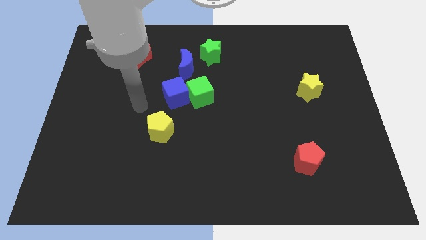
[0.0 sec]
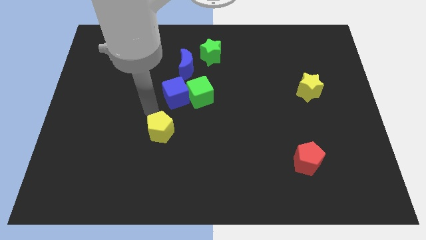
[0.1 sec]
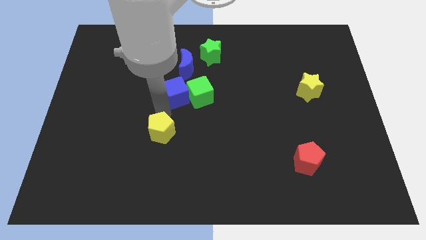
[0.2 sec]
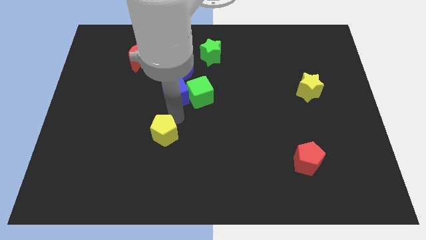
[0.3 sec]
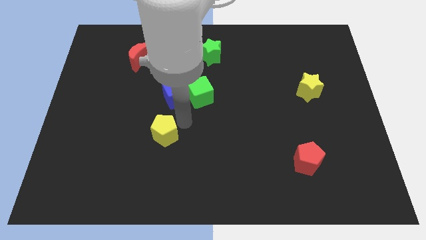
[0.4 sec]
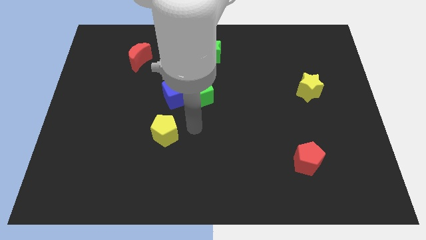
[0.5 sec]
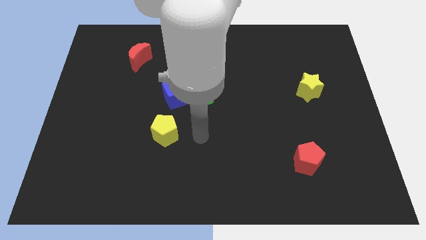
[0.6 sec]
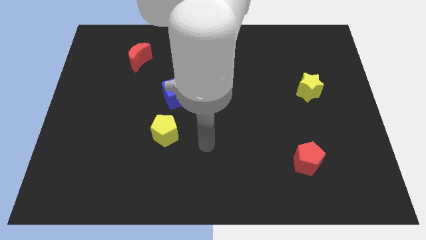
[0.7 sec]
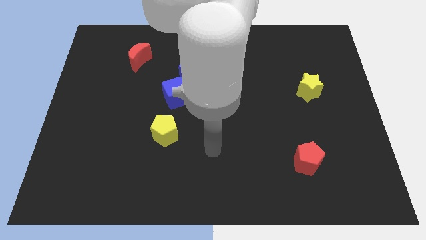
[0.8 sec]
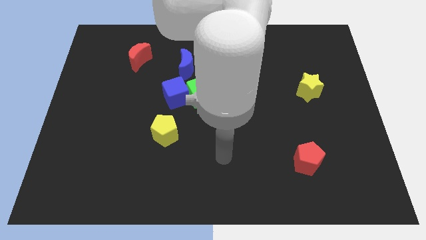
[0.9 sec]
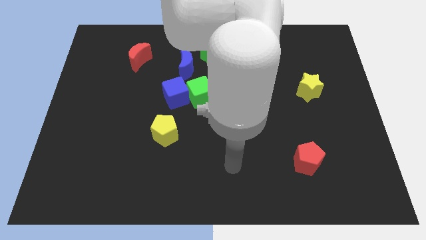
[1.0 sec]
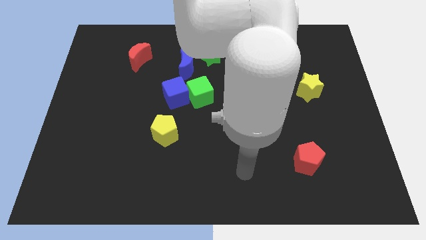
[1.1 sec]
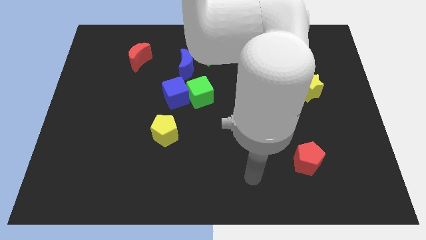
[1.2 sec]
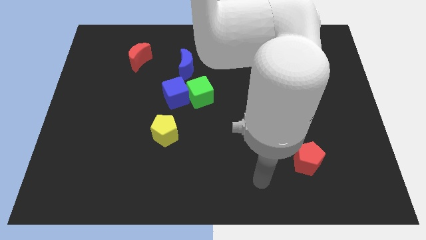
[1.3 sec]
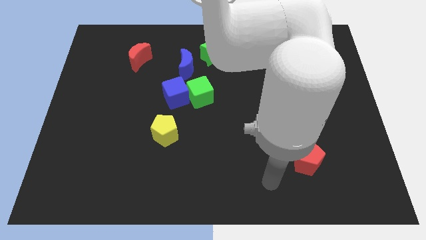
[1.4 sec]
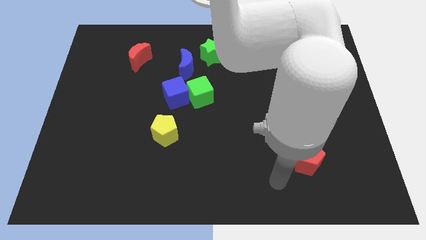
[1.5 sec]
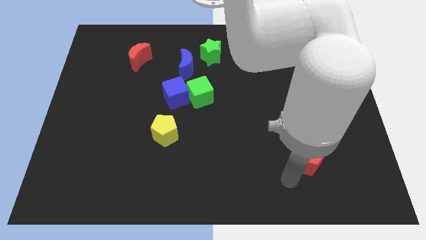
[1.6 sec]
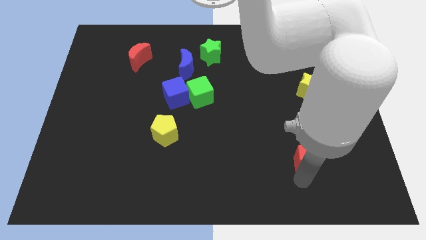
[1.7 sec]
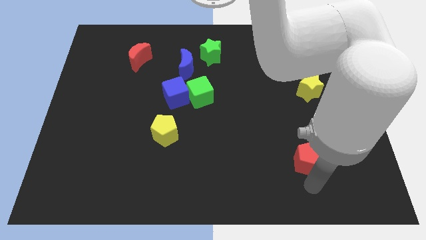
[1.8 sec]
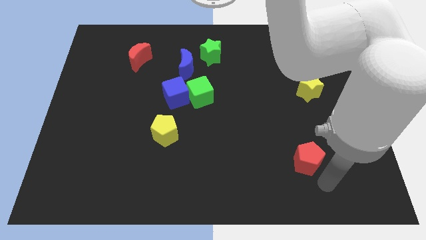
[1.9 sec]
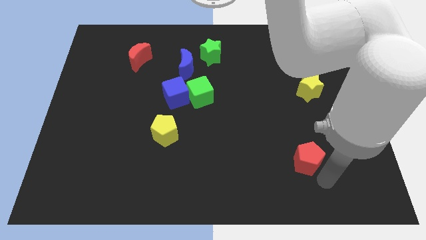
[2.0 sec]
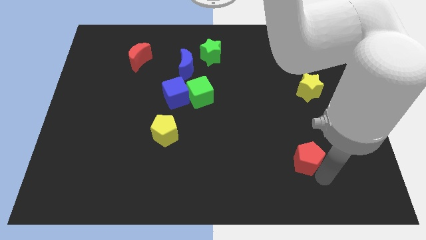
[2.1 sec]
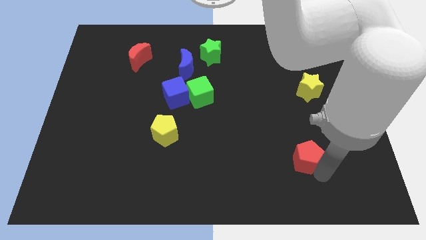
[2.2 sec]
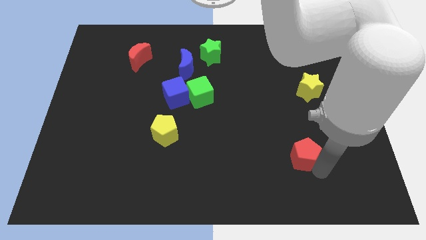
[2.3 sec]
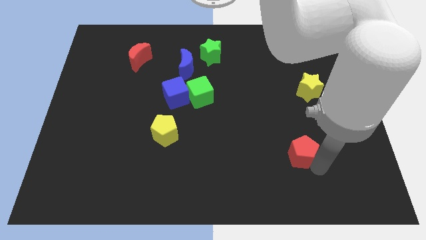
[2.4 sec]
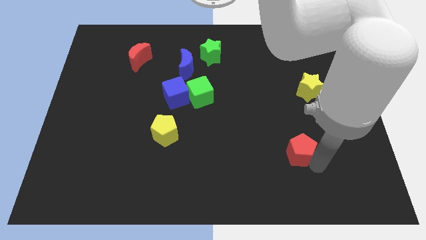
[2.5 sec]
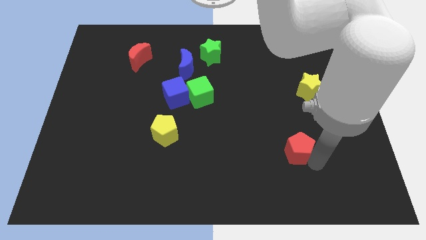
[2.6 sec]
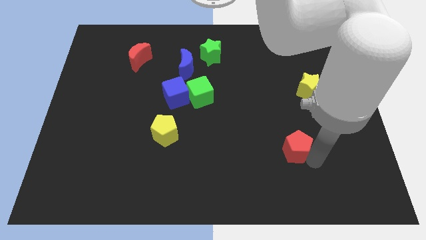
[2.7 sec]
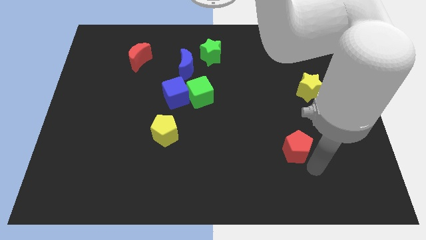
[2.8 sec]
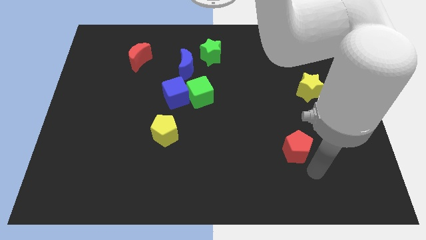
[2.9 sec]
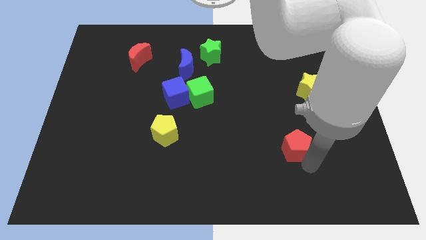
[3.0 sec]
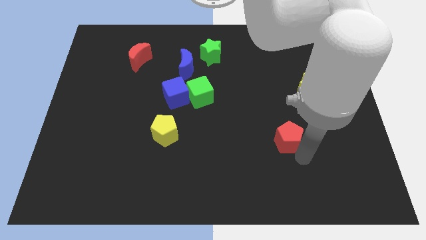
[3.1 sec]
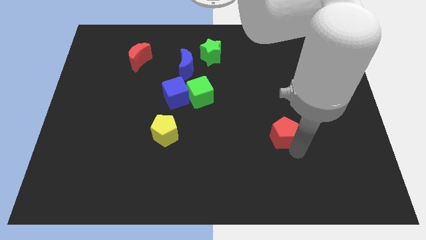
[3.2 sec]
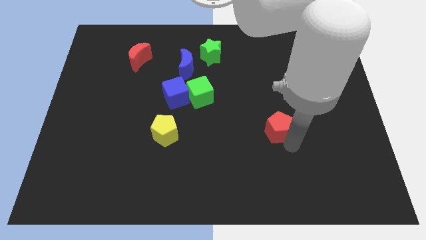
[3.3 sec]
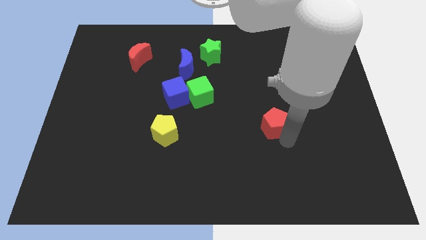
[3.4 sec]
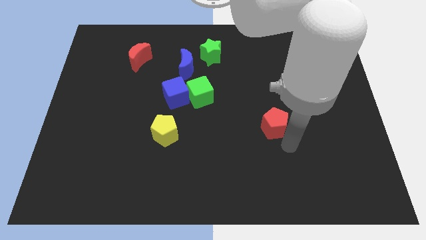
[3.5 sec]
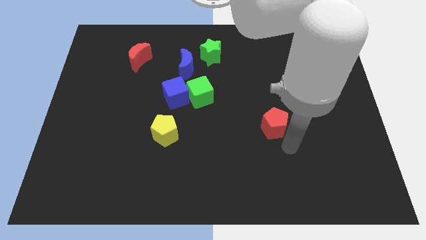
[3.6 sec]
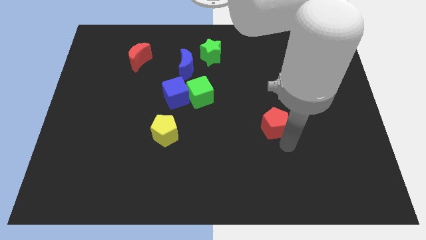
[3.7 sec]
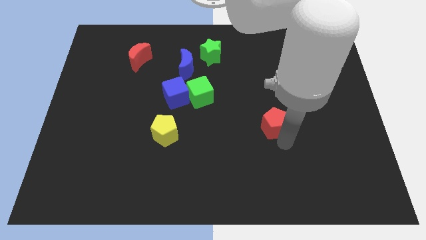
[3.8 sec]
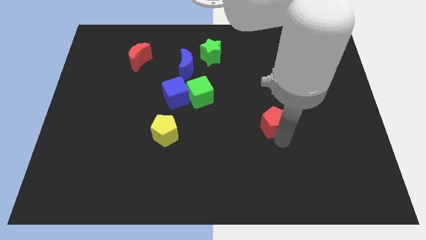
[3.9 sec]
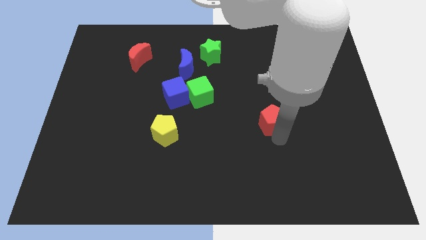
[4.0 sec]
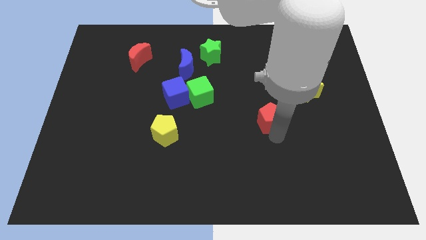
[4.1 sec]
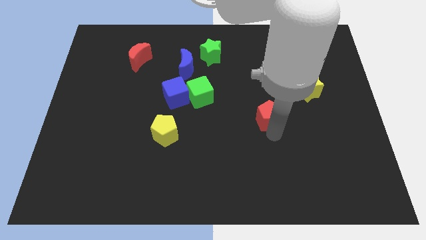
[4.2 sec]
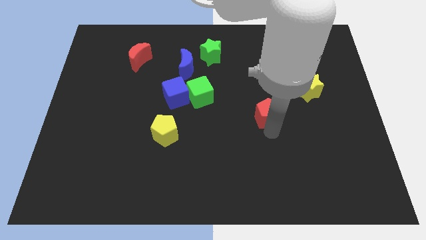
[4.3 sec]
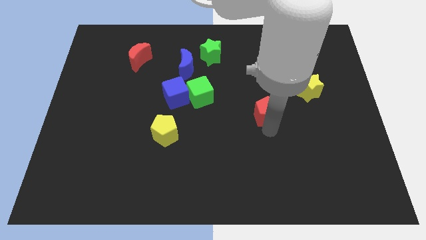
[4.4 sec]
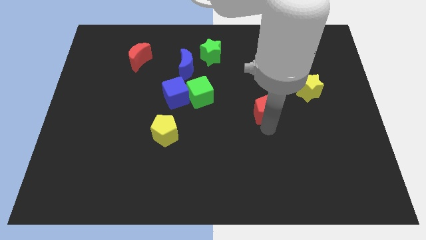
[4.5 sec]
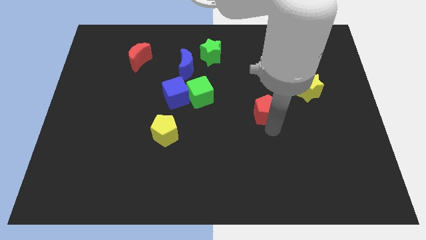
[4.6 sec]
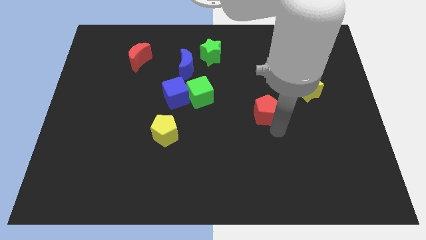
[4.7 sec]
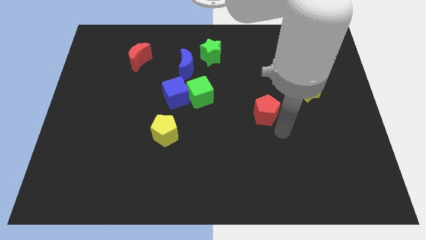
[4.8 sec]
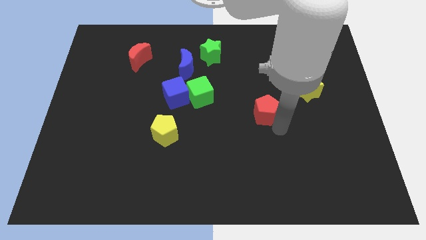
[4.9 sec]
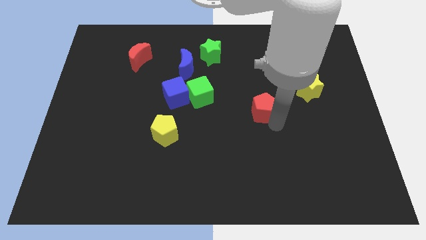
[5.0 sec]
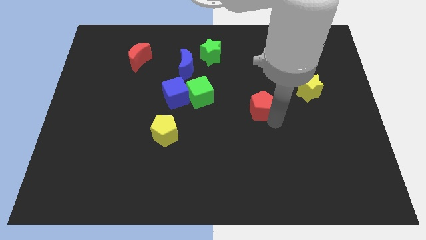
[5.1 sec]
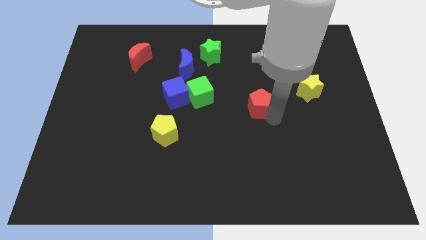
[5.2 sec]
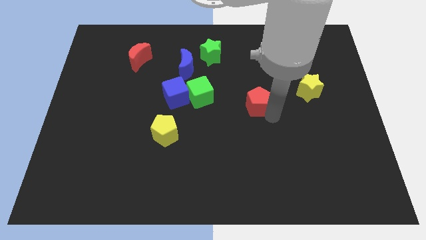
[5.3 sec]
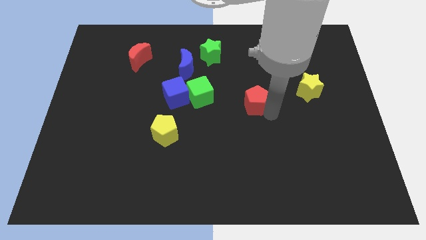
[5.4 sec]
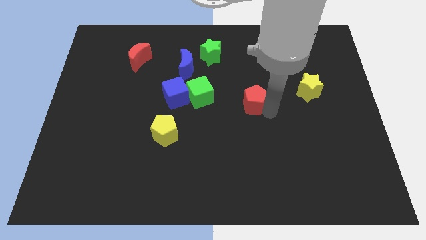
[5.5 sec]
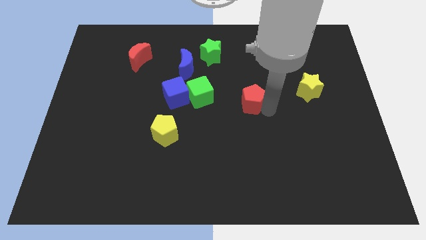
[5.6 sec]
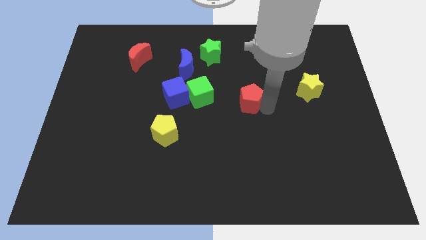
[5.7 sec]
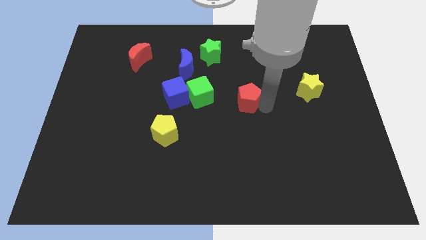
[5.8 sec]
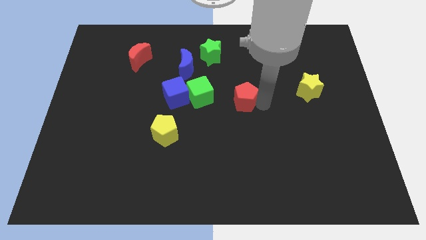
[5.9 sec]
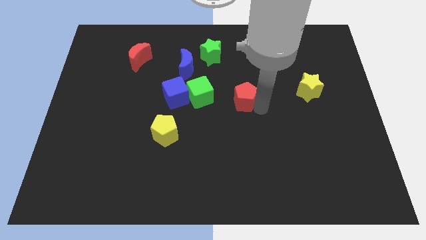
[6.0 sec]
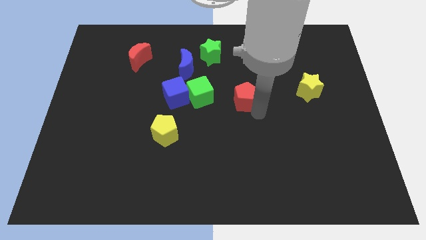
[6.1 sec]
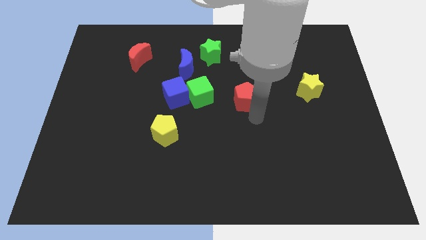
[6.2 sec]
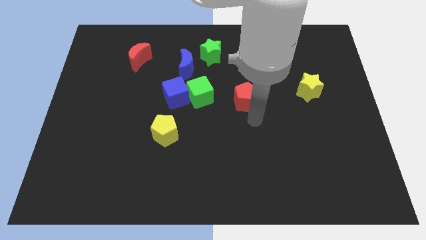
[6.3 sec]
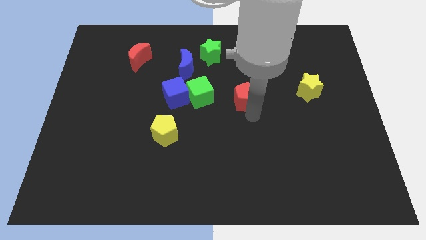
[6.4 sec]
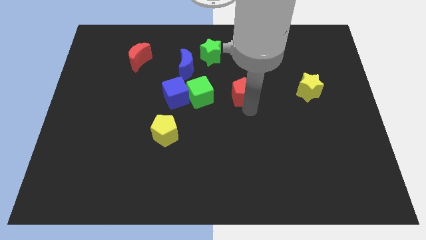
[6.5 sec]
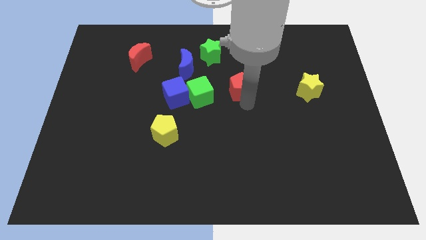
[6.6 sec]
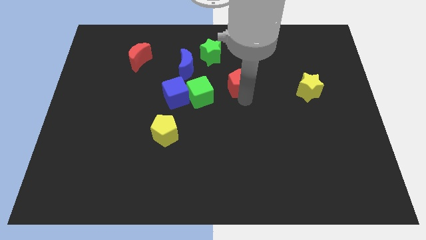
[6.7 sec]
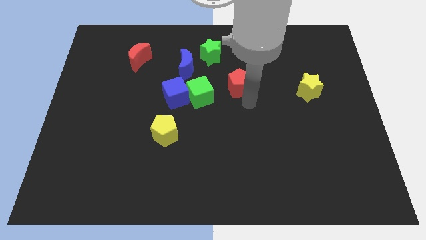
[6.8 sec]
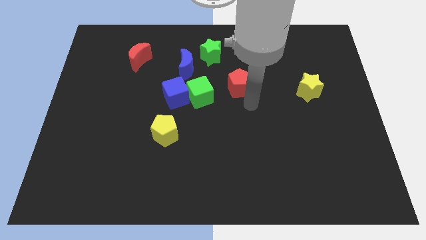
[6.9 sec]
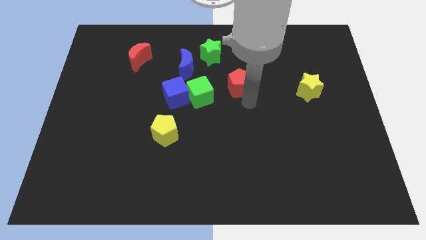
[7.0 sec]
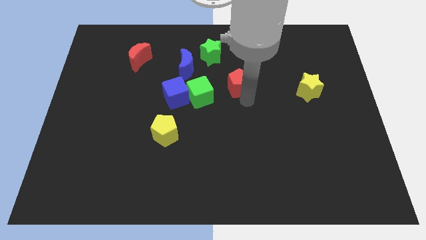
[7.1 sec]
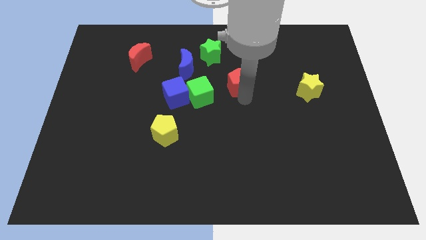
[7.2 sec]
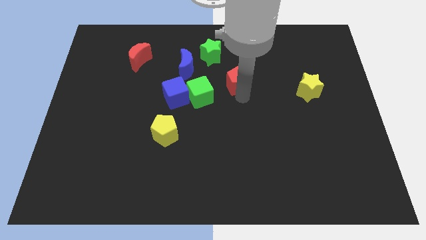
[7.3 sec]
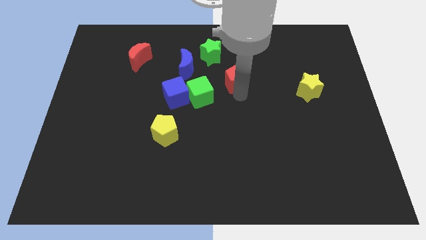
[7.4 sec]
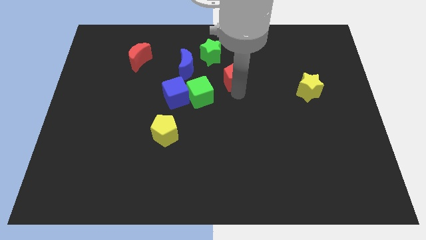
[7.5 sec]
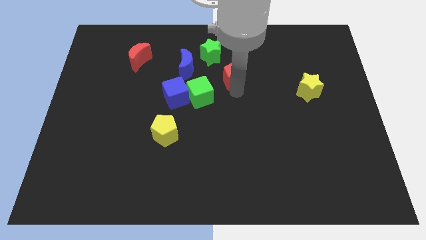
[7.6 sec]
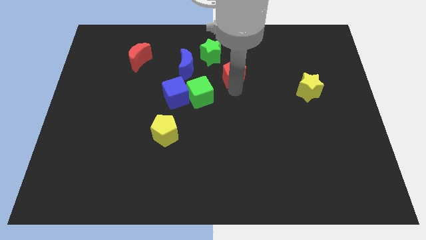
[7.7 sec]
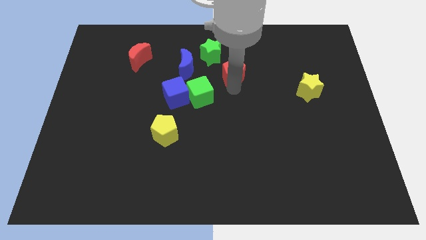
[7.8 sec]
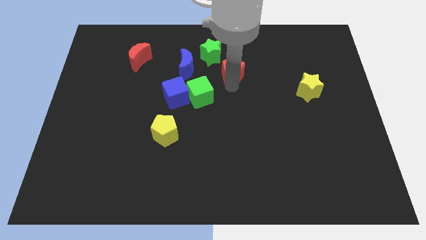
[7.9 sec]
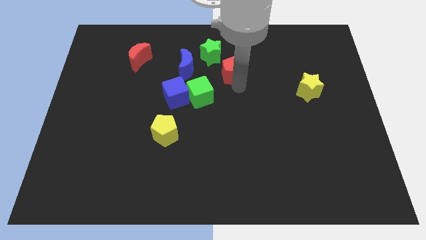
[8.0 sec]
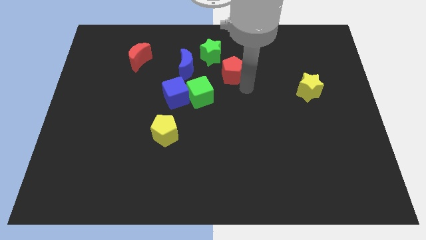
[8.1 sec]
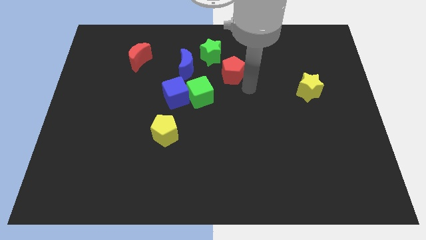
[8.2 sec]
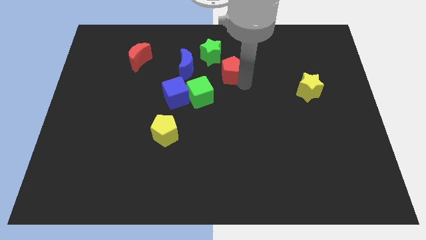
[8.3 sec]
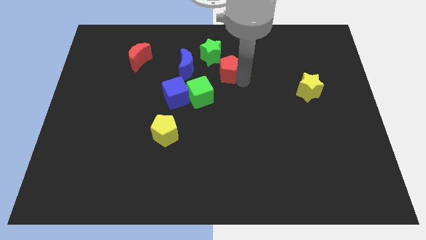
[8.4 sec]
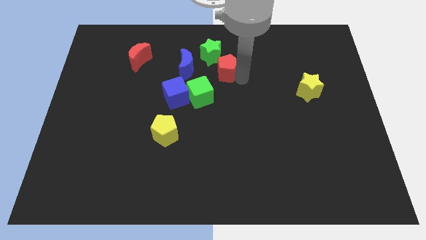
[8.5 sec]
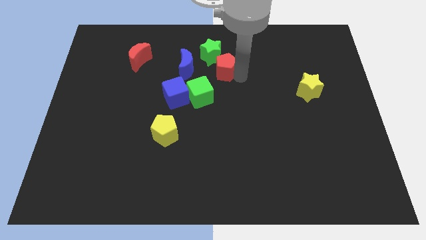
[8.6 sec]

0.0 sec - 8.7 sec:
slide the red pentagon towards the green star
